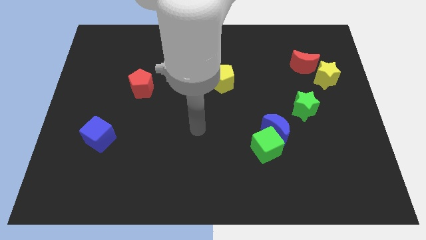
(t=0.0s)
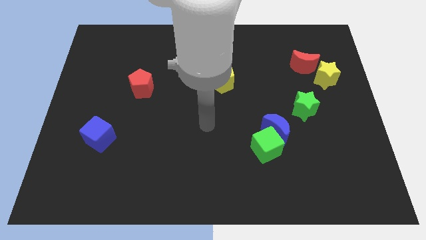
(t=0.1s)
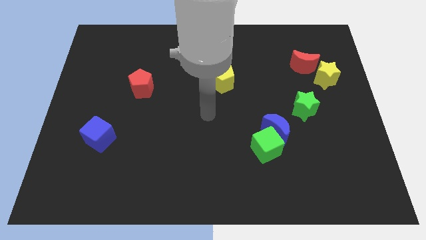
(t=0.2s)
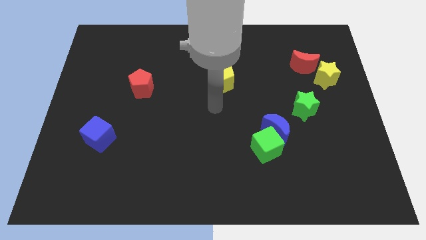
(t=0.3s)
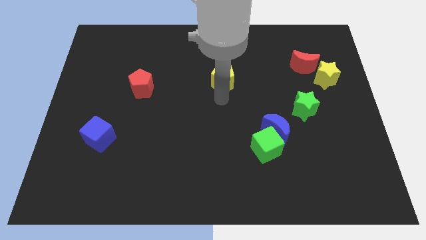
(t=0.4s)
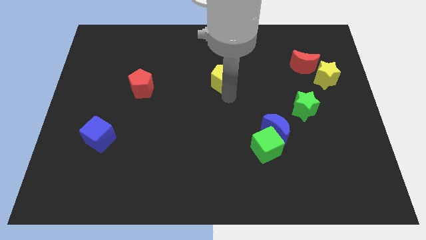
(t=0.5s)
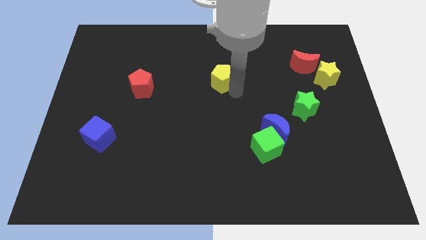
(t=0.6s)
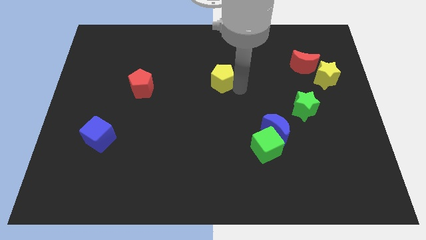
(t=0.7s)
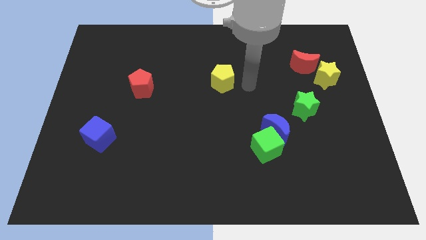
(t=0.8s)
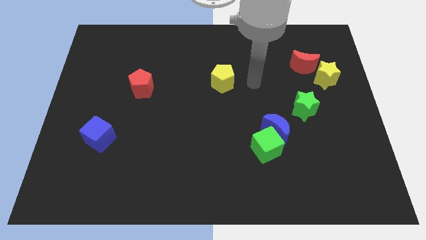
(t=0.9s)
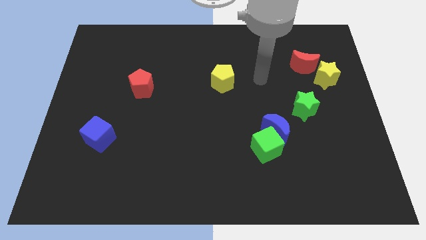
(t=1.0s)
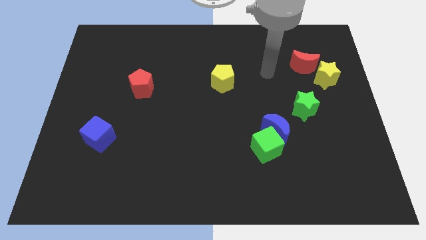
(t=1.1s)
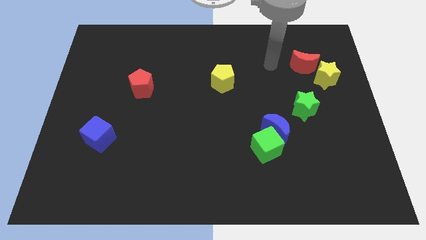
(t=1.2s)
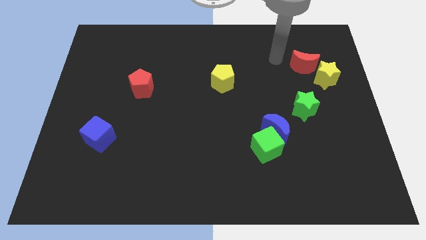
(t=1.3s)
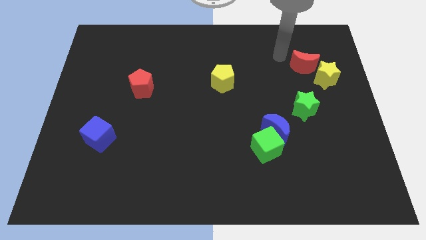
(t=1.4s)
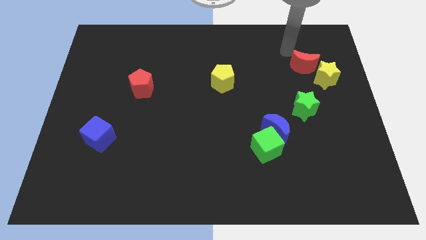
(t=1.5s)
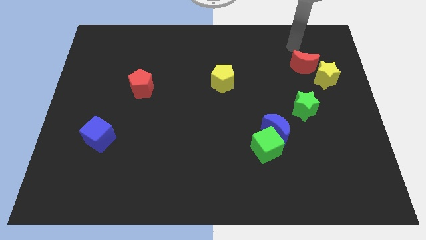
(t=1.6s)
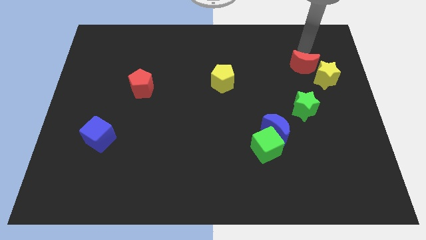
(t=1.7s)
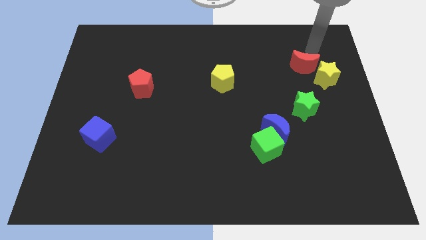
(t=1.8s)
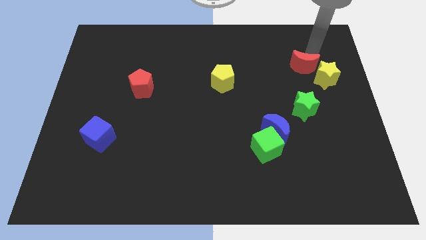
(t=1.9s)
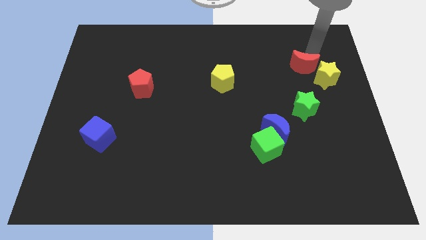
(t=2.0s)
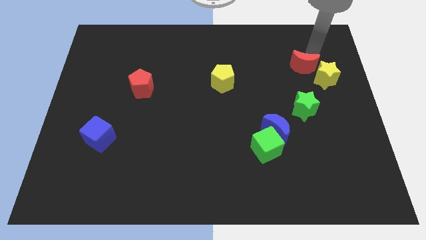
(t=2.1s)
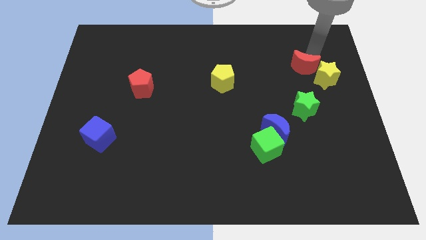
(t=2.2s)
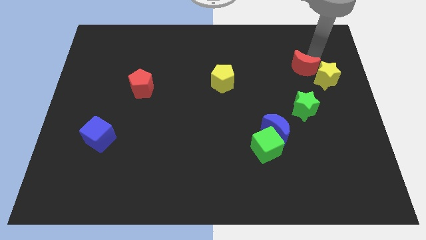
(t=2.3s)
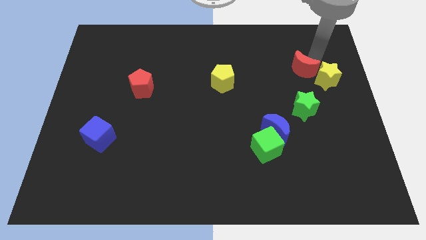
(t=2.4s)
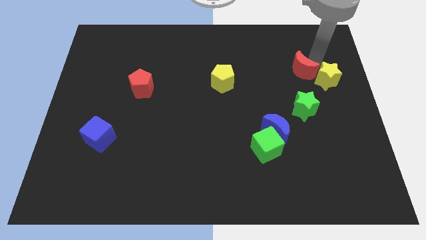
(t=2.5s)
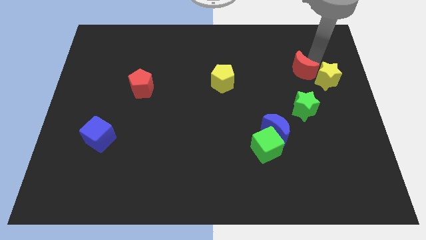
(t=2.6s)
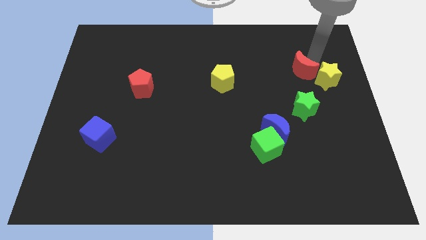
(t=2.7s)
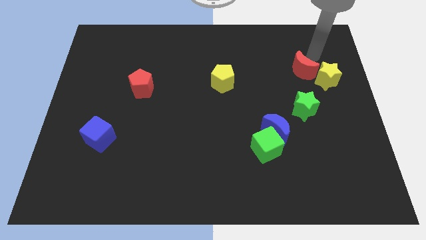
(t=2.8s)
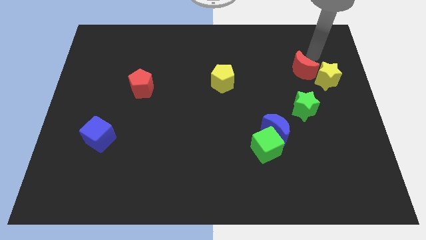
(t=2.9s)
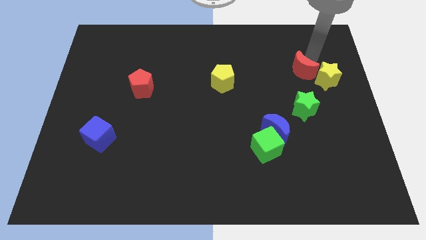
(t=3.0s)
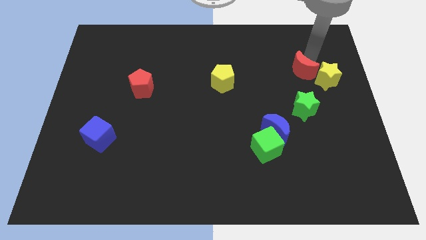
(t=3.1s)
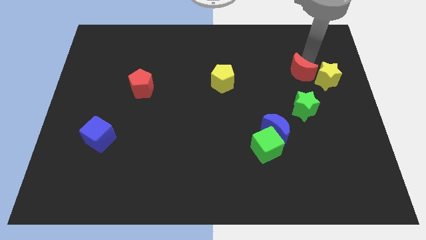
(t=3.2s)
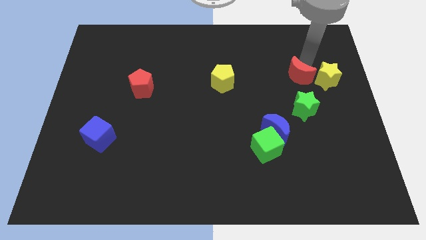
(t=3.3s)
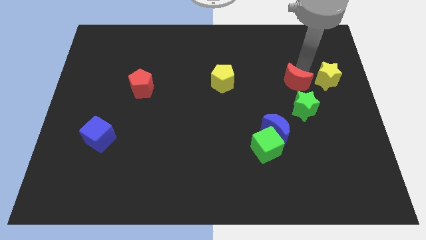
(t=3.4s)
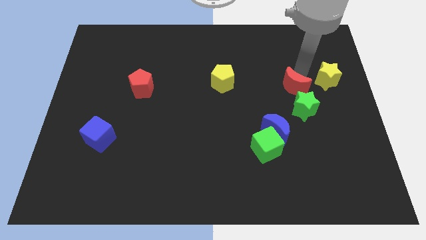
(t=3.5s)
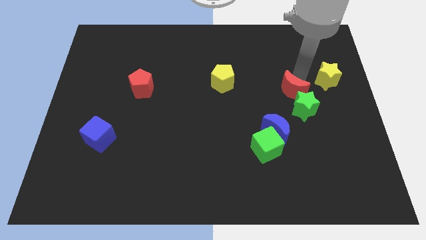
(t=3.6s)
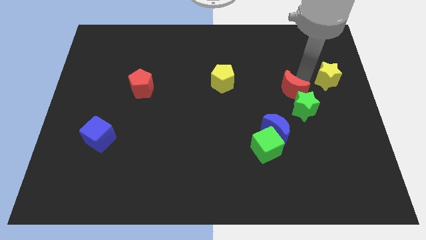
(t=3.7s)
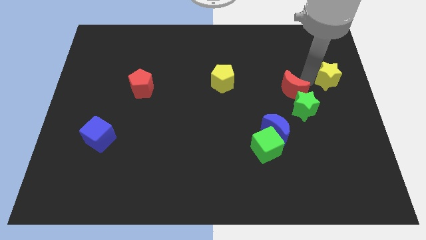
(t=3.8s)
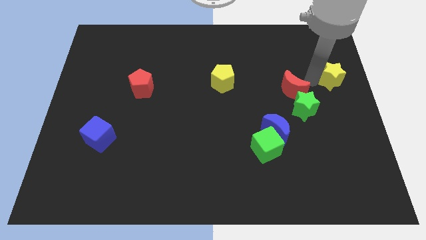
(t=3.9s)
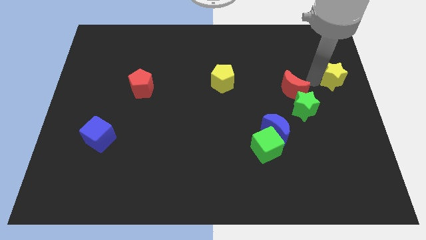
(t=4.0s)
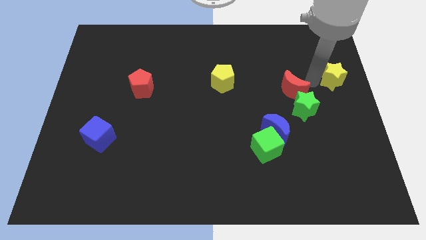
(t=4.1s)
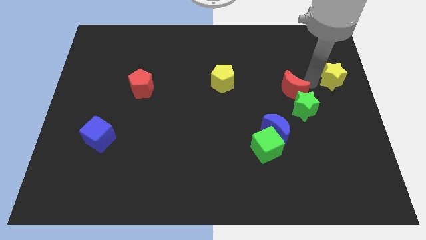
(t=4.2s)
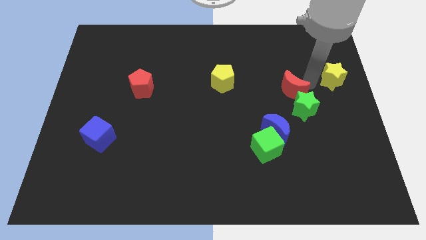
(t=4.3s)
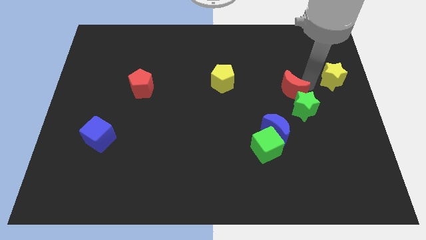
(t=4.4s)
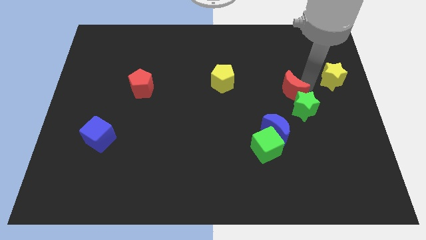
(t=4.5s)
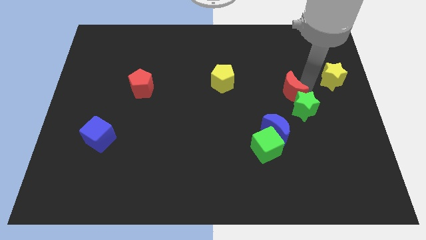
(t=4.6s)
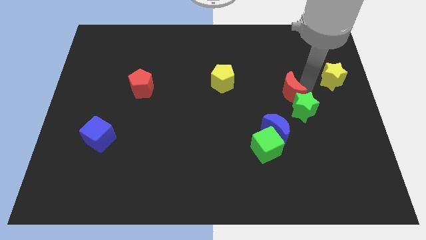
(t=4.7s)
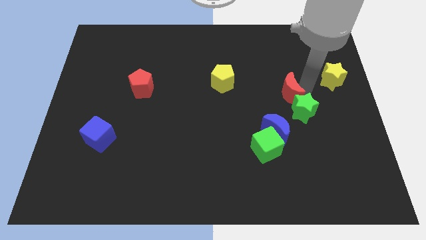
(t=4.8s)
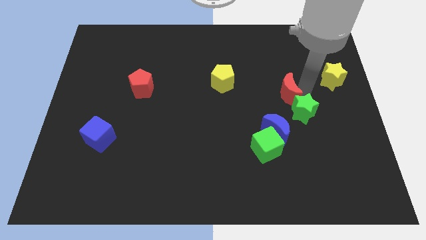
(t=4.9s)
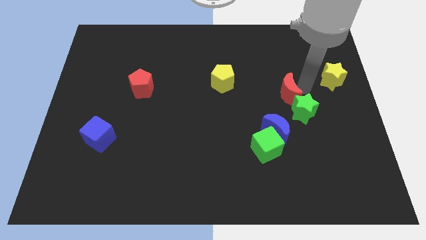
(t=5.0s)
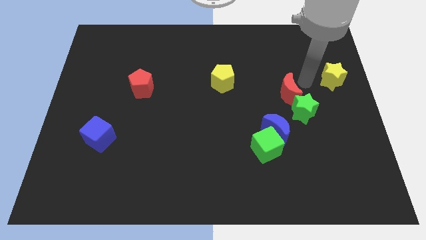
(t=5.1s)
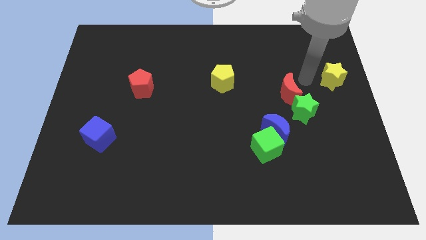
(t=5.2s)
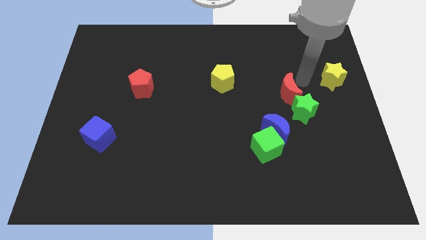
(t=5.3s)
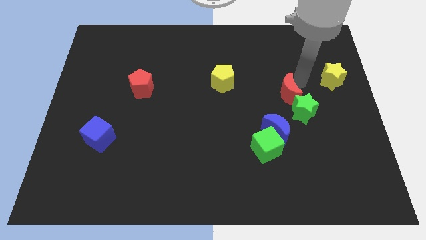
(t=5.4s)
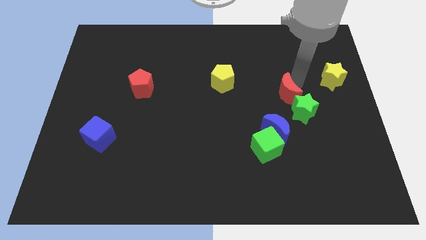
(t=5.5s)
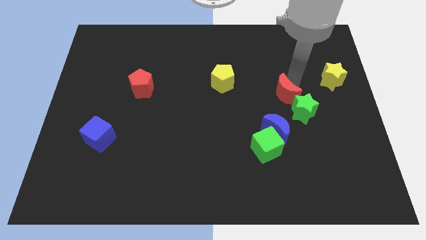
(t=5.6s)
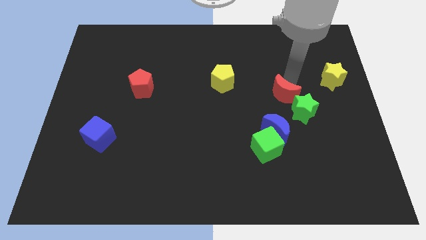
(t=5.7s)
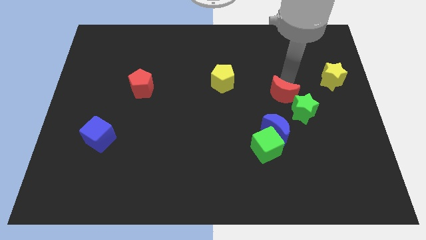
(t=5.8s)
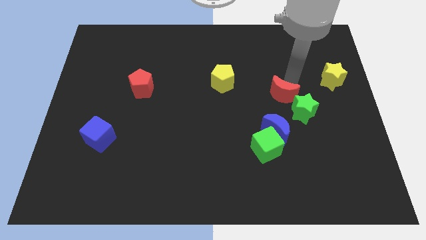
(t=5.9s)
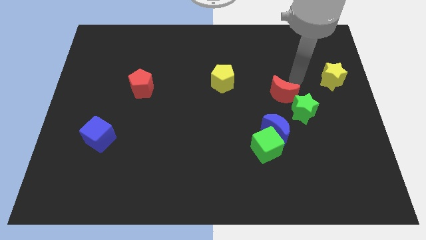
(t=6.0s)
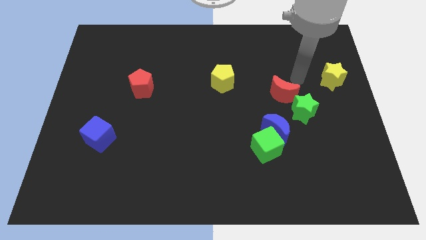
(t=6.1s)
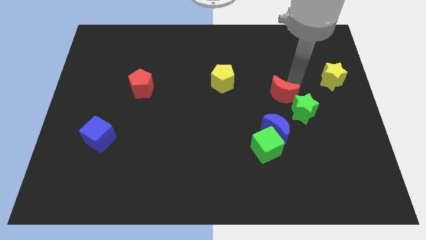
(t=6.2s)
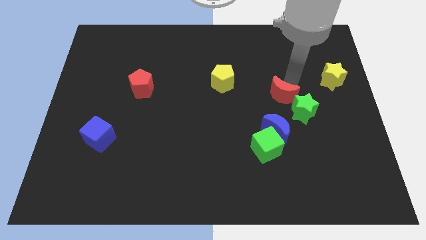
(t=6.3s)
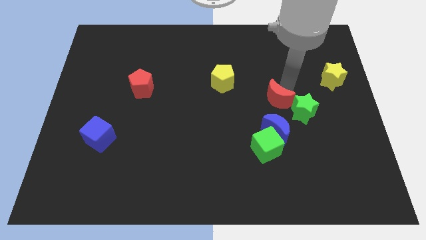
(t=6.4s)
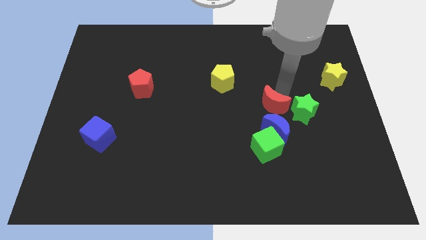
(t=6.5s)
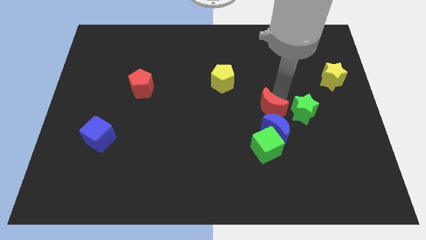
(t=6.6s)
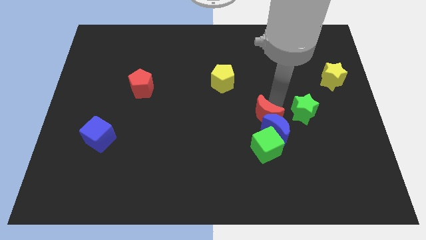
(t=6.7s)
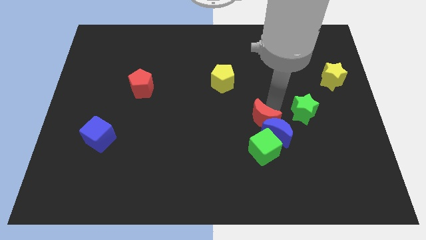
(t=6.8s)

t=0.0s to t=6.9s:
move the red moon downwards and left

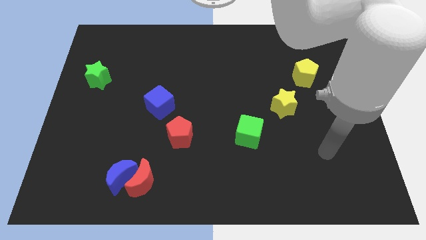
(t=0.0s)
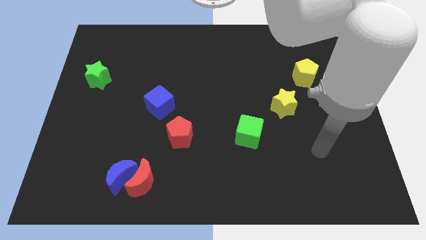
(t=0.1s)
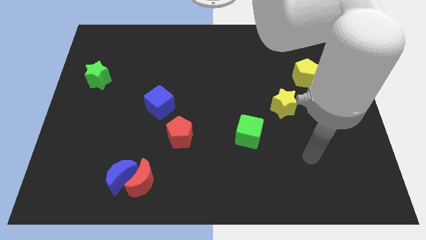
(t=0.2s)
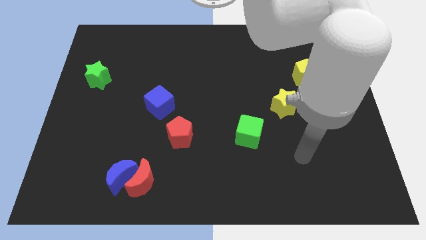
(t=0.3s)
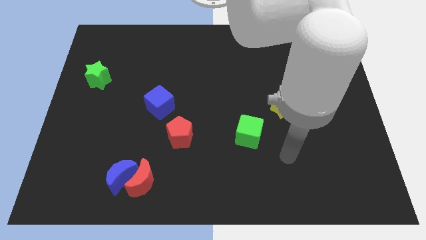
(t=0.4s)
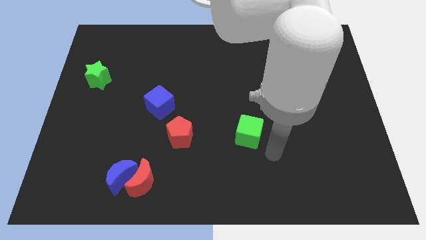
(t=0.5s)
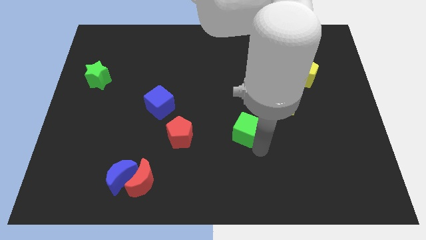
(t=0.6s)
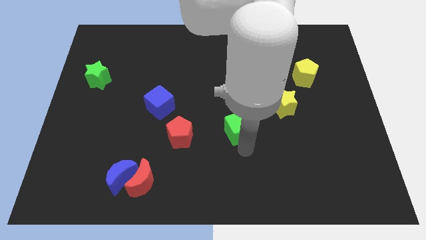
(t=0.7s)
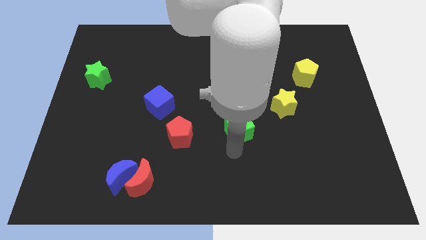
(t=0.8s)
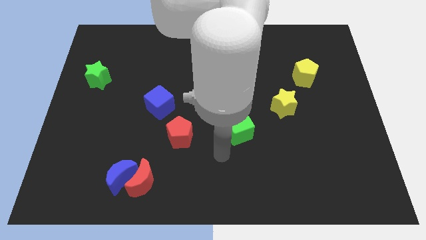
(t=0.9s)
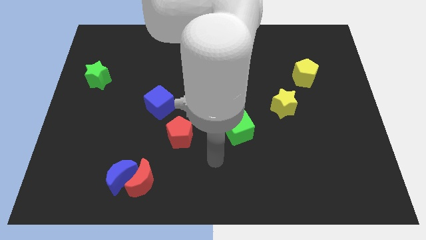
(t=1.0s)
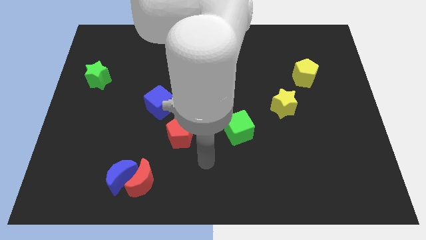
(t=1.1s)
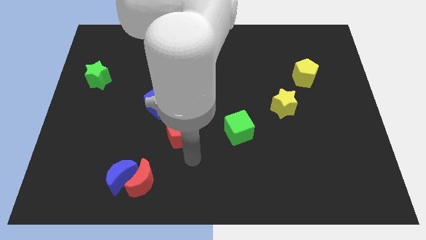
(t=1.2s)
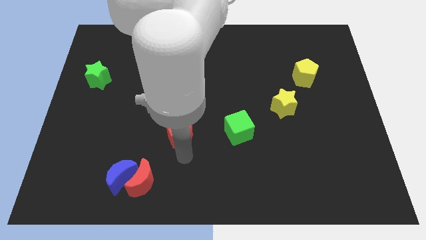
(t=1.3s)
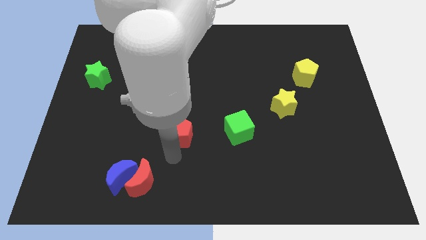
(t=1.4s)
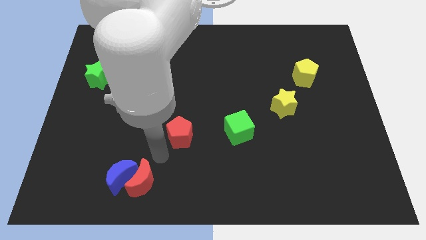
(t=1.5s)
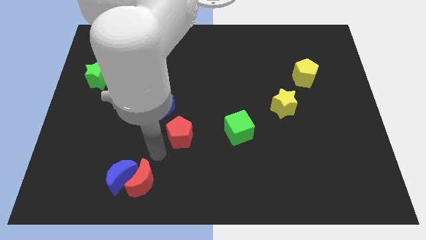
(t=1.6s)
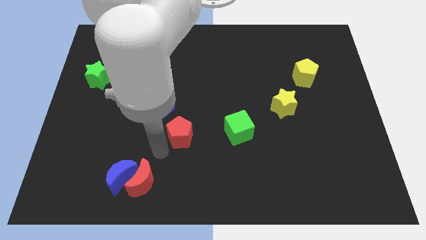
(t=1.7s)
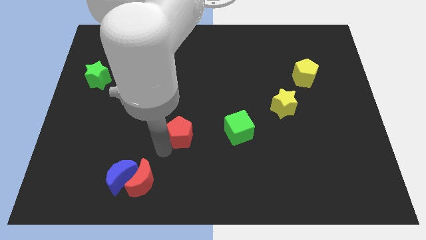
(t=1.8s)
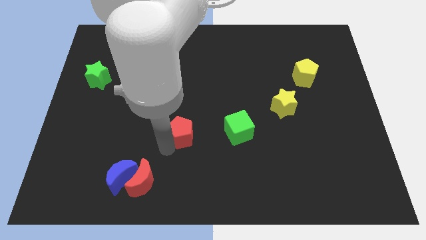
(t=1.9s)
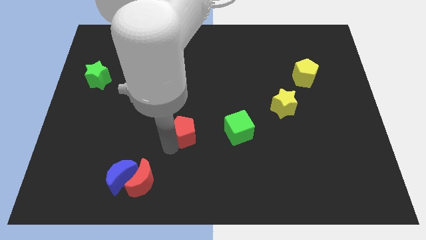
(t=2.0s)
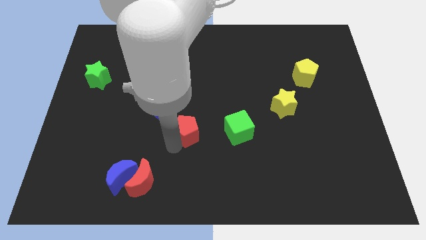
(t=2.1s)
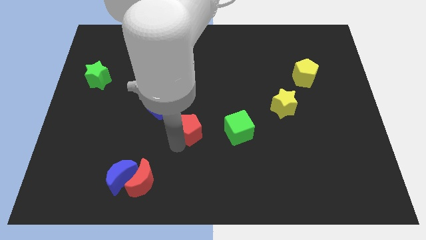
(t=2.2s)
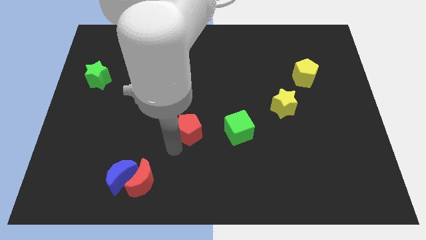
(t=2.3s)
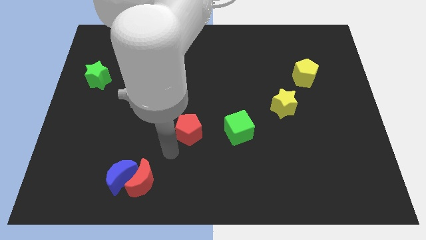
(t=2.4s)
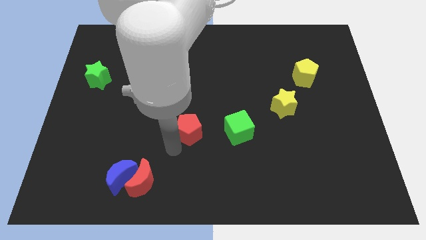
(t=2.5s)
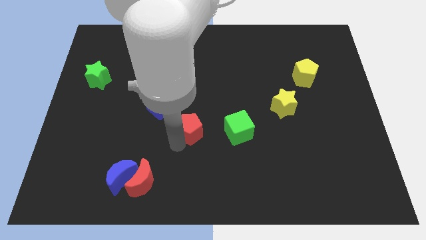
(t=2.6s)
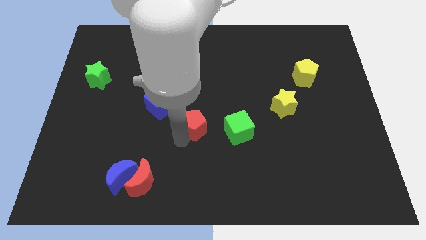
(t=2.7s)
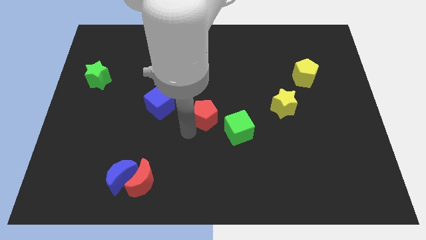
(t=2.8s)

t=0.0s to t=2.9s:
move the red pentagon diagonally up and right a bit
